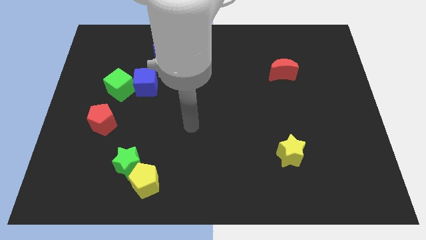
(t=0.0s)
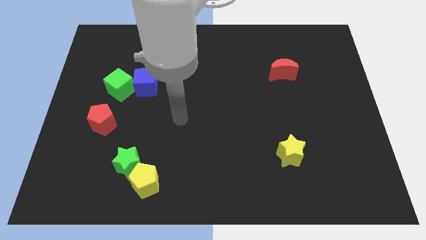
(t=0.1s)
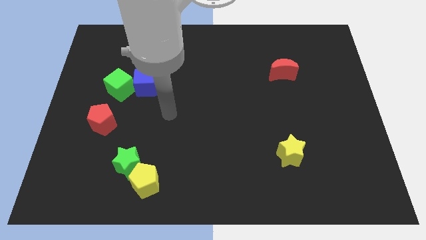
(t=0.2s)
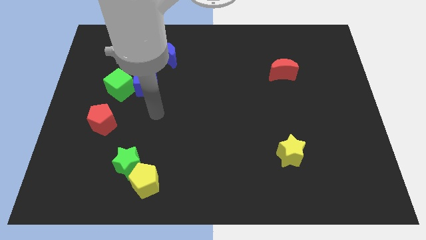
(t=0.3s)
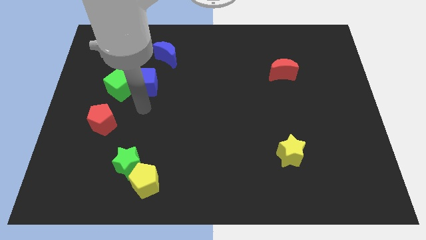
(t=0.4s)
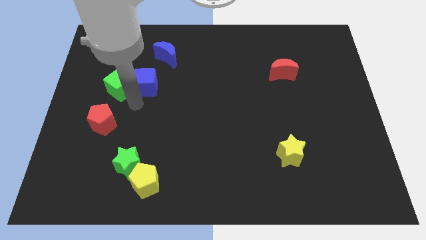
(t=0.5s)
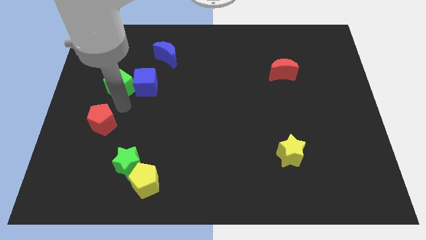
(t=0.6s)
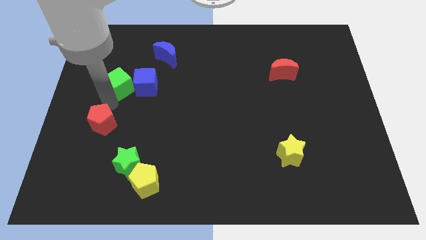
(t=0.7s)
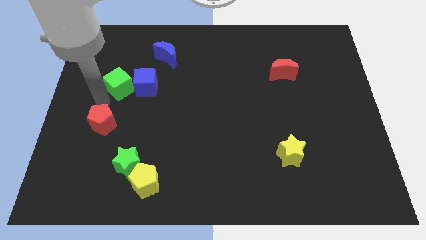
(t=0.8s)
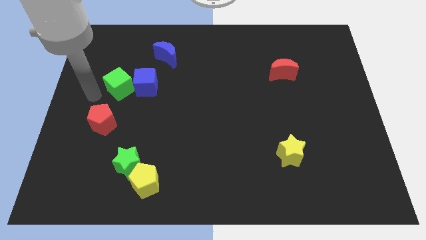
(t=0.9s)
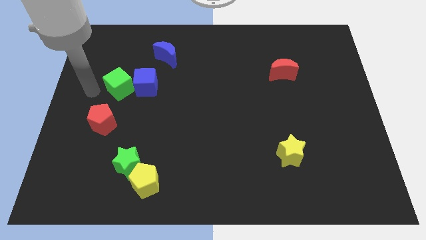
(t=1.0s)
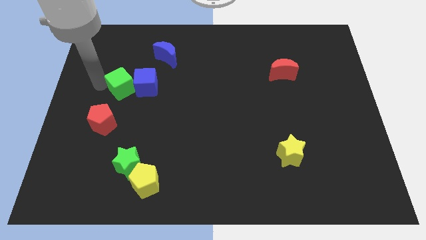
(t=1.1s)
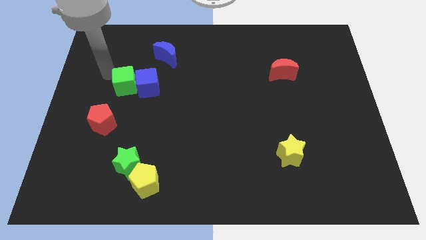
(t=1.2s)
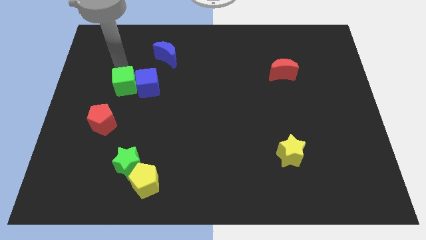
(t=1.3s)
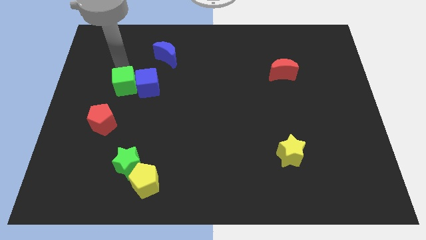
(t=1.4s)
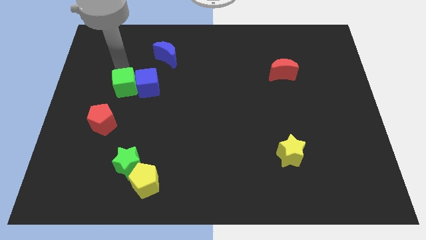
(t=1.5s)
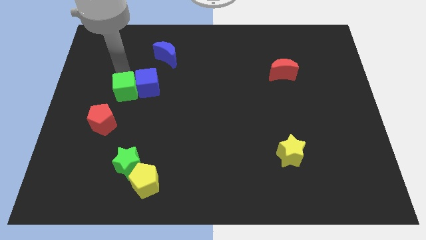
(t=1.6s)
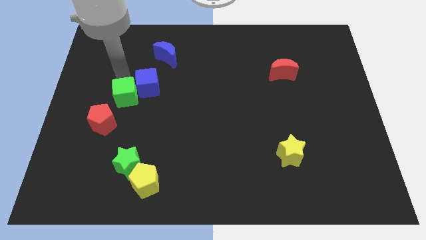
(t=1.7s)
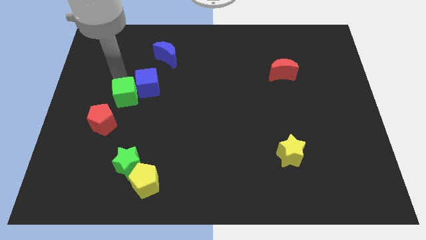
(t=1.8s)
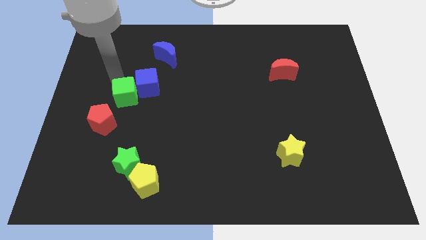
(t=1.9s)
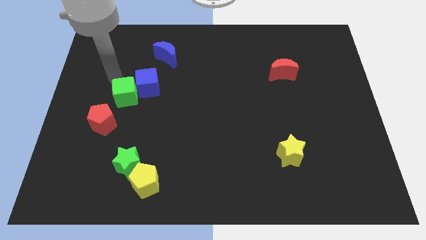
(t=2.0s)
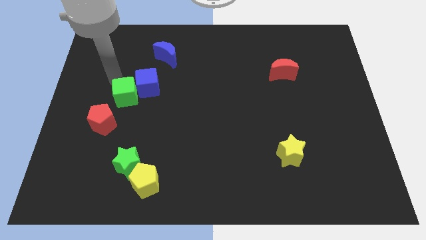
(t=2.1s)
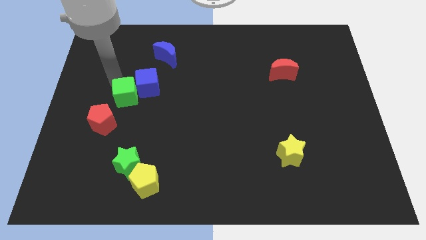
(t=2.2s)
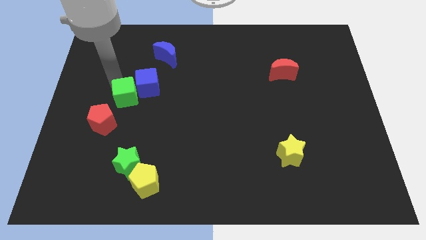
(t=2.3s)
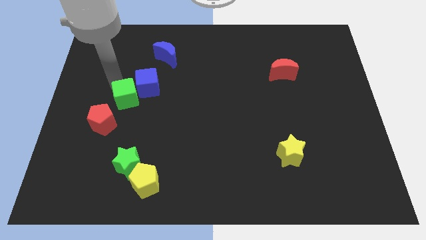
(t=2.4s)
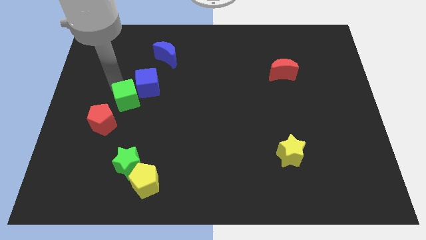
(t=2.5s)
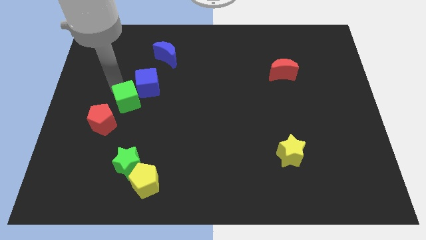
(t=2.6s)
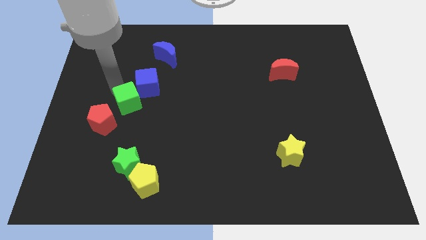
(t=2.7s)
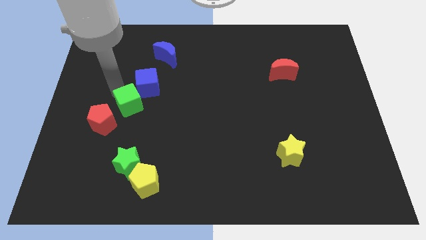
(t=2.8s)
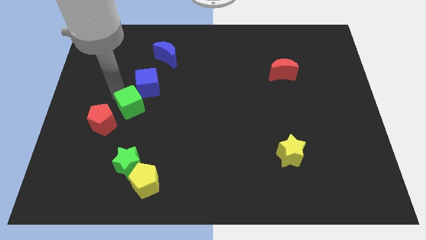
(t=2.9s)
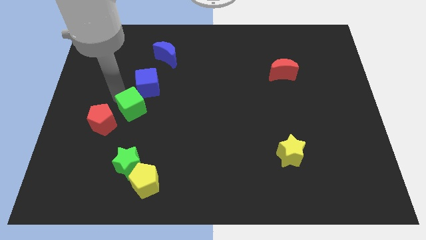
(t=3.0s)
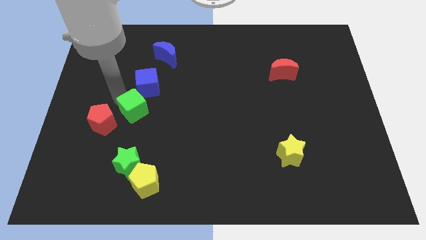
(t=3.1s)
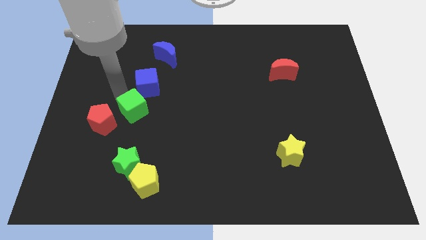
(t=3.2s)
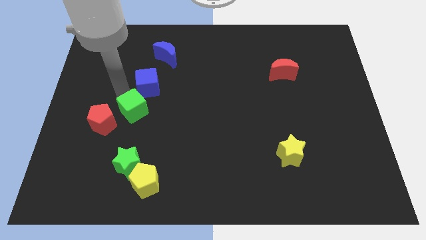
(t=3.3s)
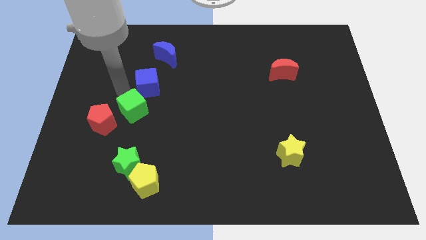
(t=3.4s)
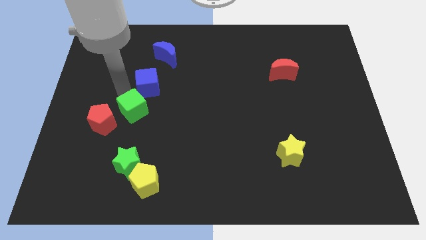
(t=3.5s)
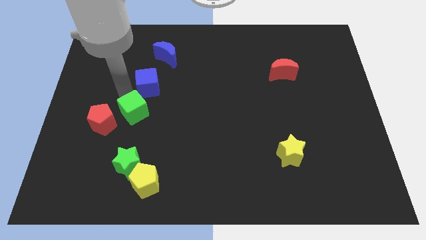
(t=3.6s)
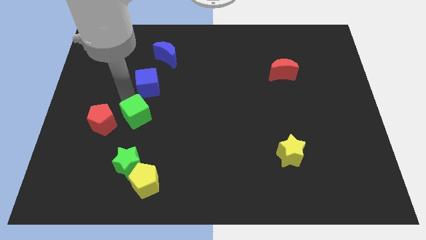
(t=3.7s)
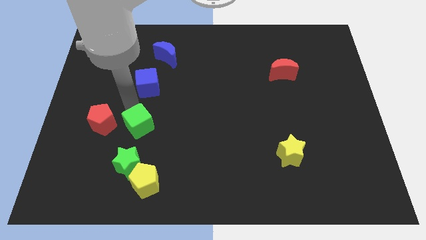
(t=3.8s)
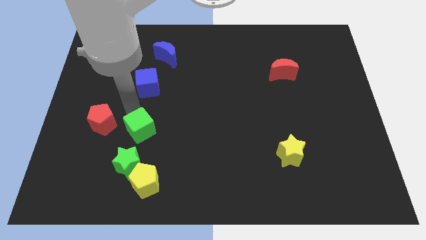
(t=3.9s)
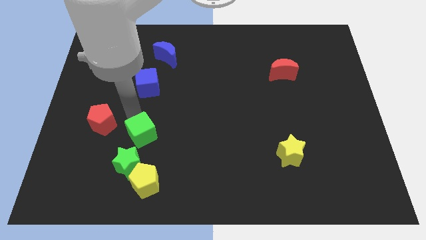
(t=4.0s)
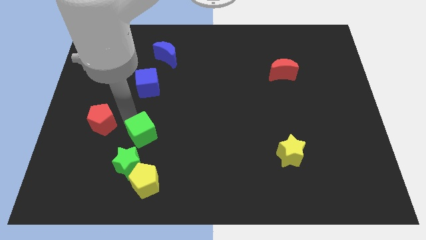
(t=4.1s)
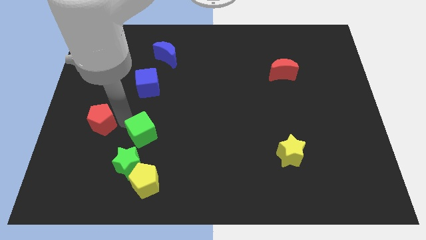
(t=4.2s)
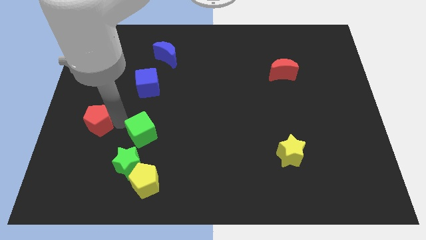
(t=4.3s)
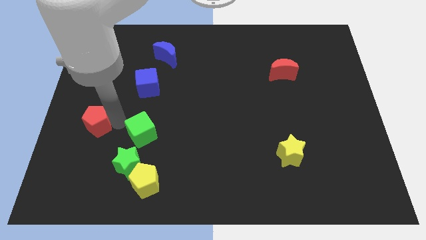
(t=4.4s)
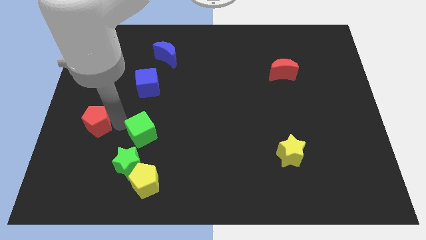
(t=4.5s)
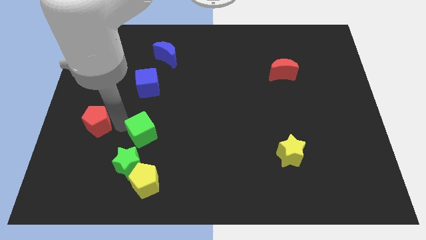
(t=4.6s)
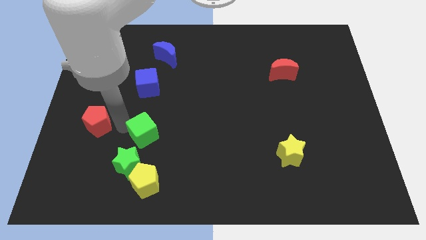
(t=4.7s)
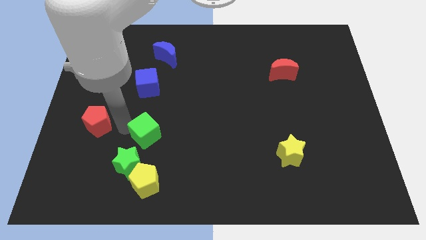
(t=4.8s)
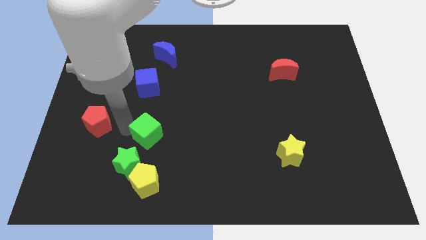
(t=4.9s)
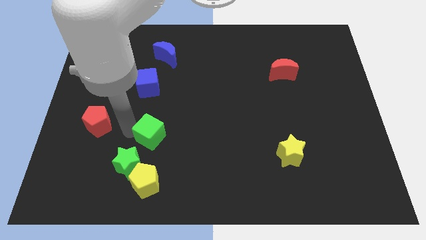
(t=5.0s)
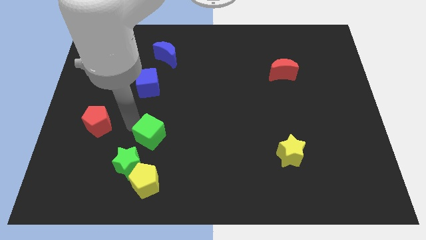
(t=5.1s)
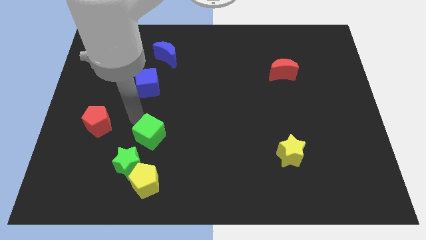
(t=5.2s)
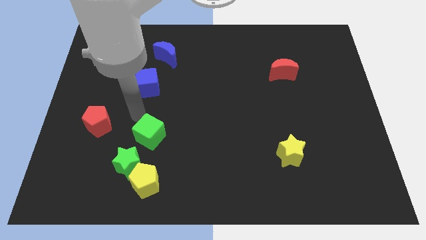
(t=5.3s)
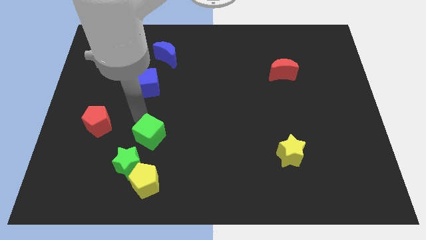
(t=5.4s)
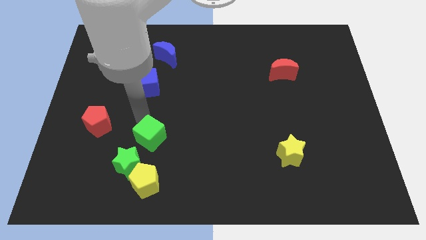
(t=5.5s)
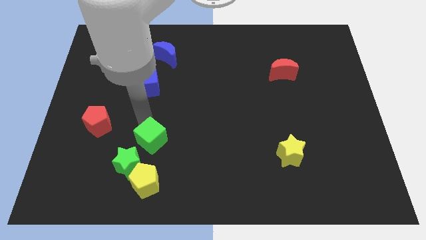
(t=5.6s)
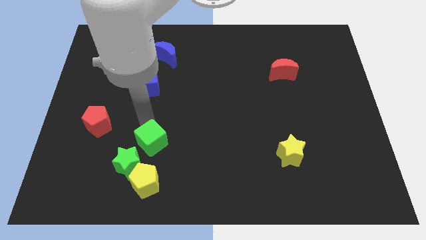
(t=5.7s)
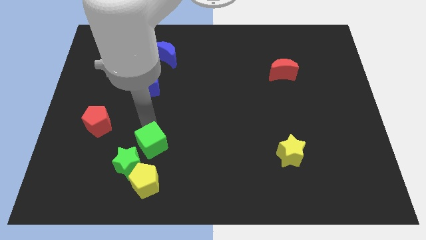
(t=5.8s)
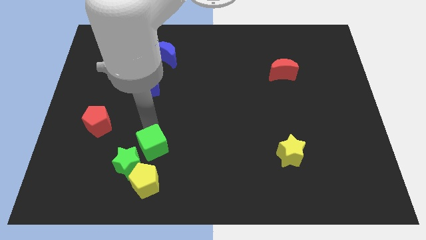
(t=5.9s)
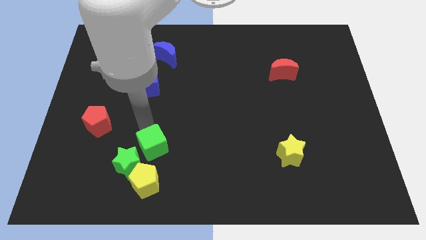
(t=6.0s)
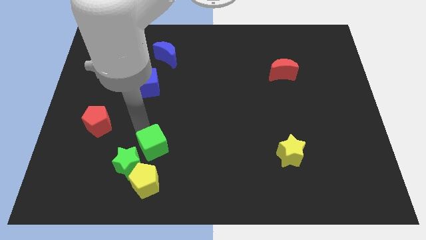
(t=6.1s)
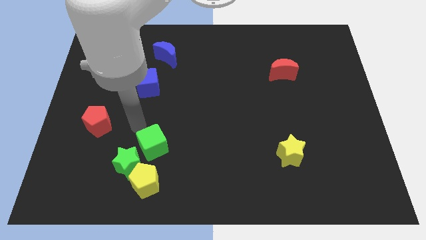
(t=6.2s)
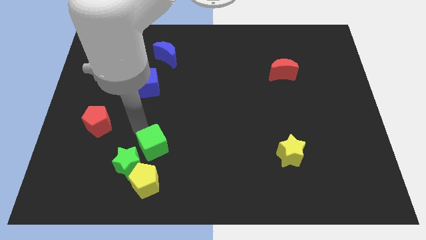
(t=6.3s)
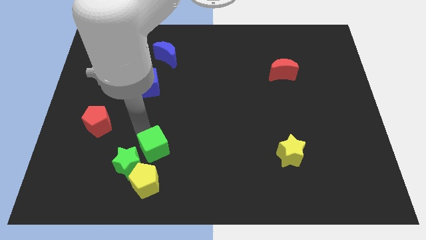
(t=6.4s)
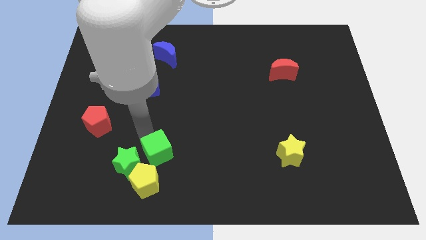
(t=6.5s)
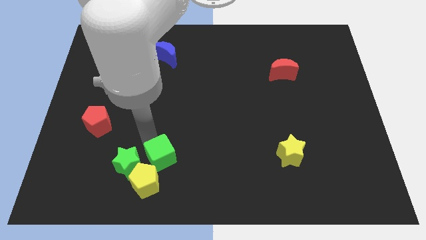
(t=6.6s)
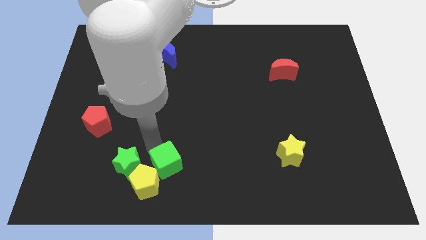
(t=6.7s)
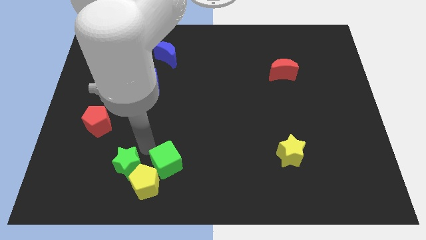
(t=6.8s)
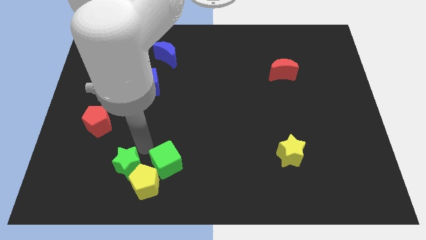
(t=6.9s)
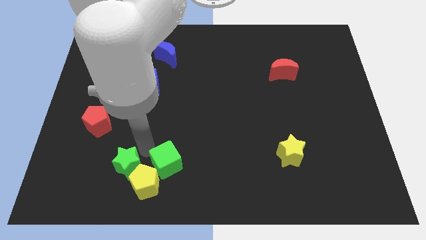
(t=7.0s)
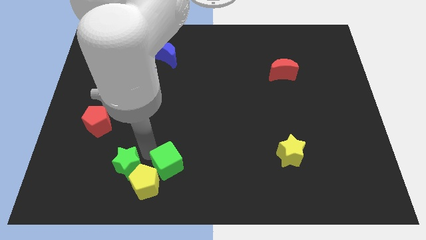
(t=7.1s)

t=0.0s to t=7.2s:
push the green cube to the right side of the yellow pentagon
